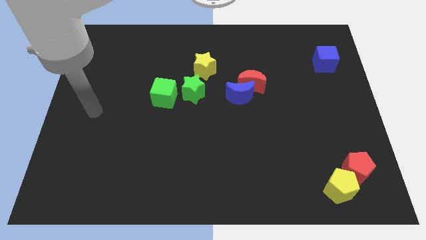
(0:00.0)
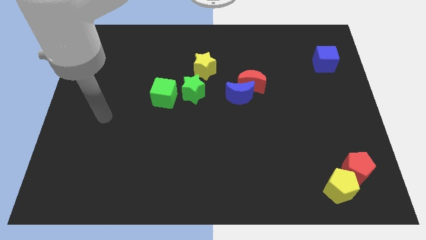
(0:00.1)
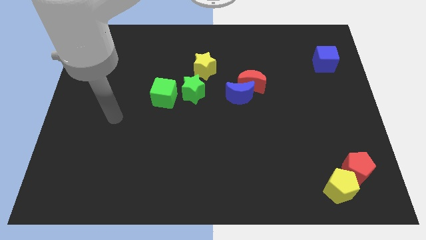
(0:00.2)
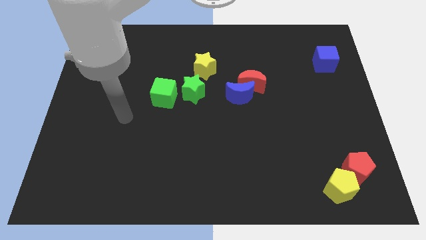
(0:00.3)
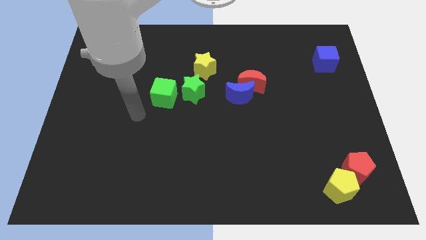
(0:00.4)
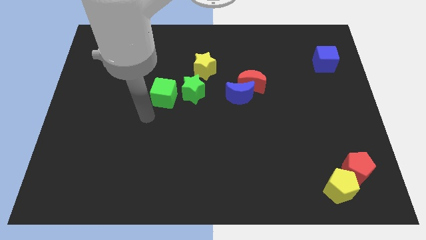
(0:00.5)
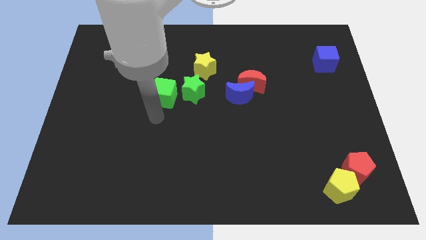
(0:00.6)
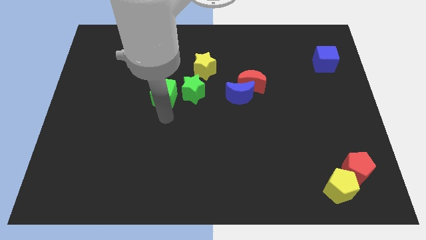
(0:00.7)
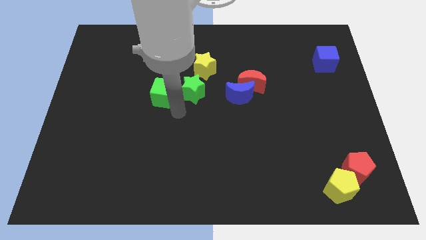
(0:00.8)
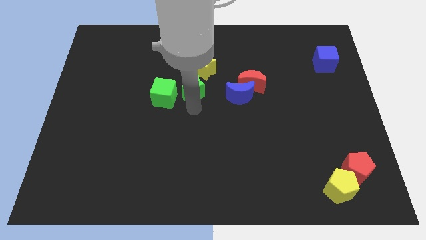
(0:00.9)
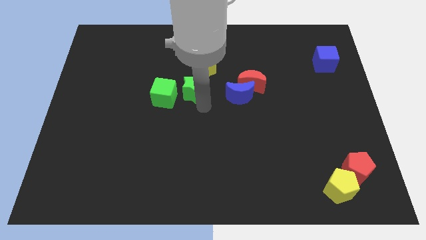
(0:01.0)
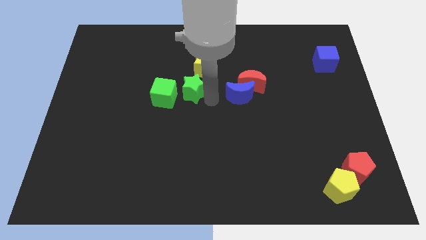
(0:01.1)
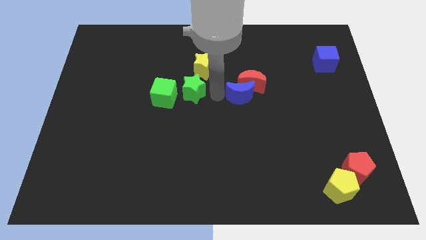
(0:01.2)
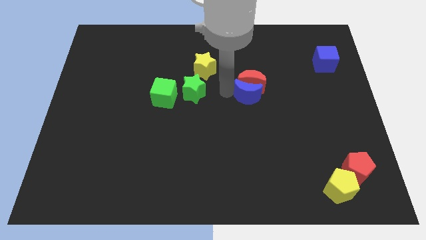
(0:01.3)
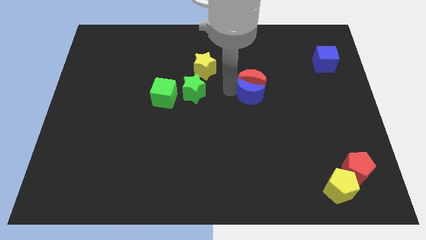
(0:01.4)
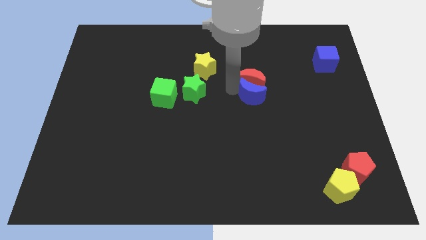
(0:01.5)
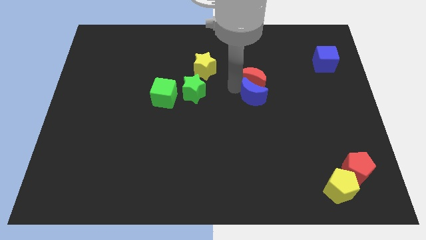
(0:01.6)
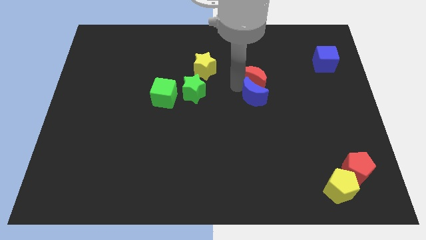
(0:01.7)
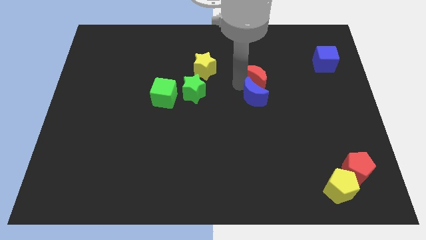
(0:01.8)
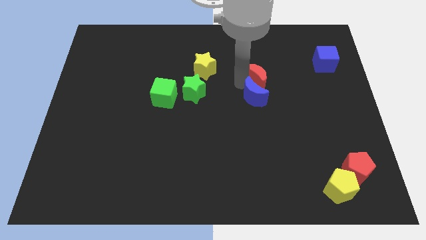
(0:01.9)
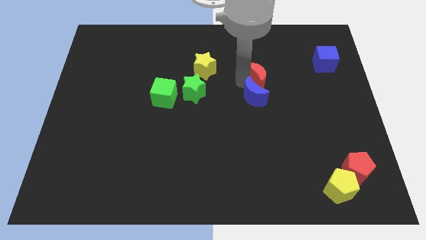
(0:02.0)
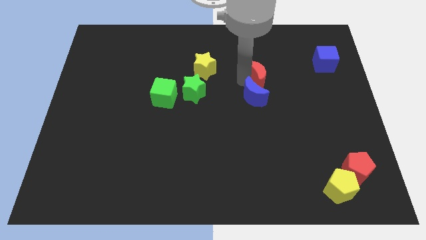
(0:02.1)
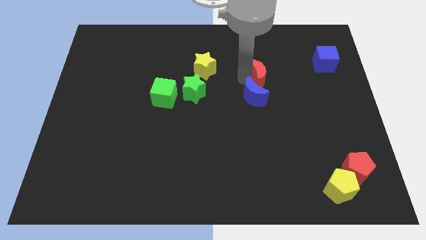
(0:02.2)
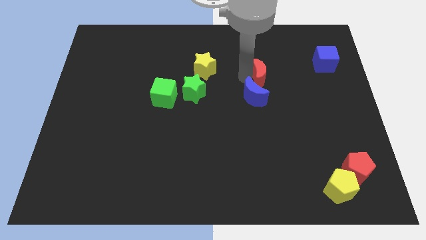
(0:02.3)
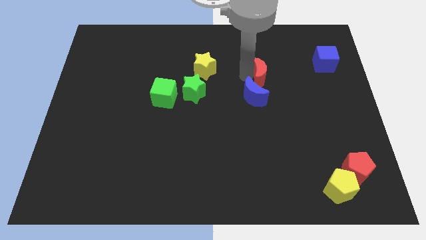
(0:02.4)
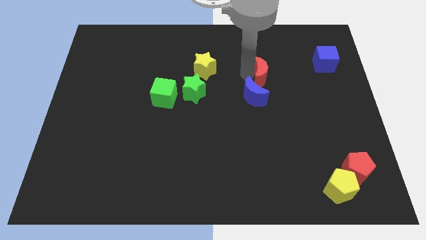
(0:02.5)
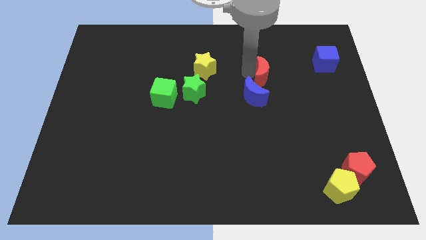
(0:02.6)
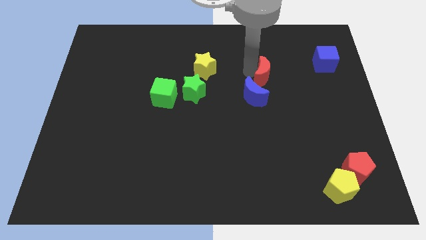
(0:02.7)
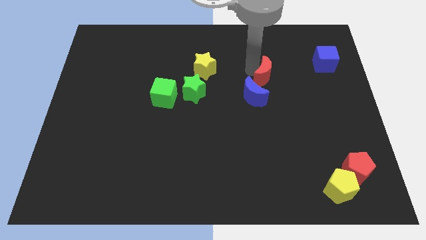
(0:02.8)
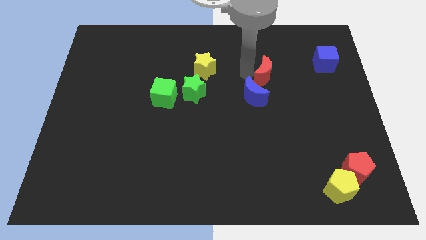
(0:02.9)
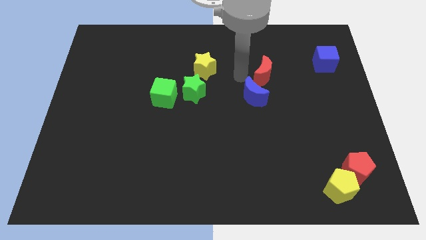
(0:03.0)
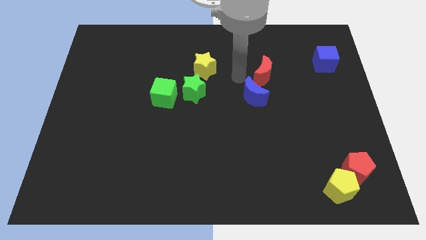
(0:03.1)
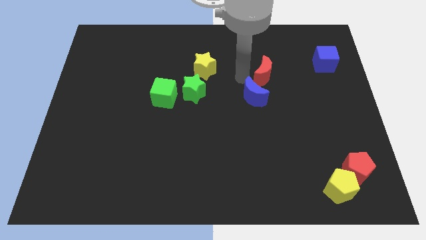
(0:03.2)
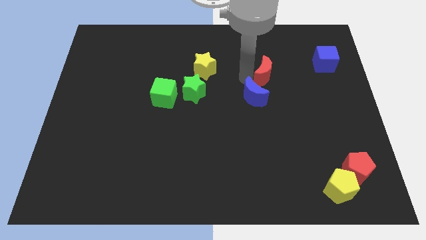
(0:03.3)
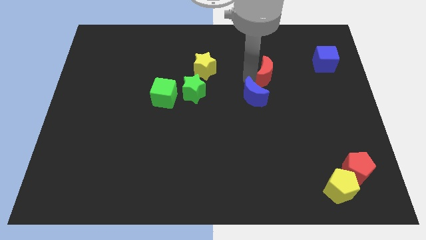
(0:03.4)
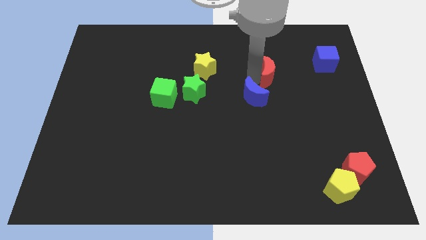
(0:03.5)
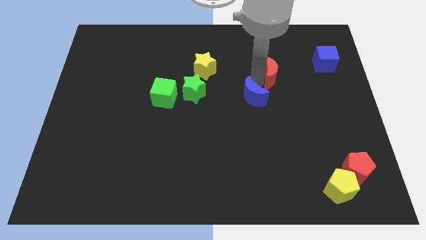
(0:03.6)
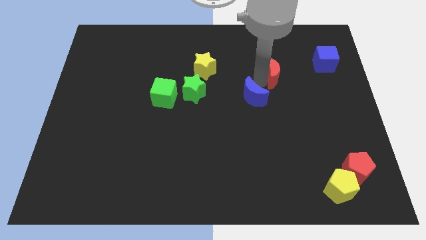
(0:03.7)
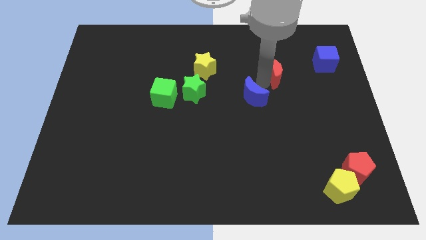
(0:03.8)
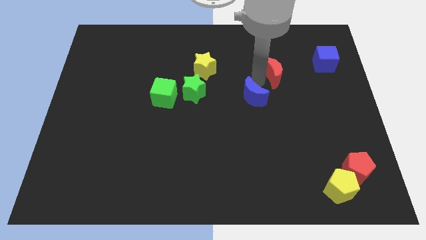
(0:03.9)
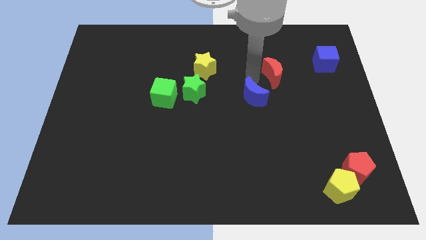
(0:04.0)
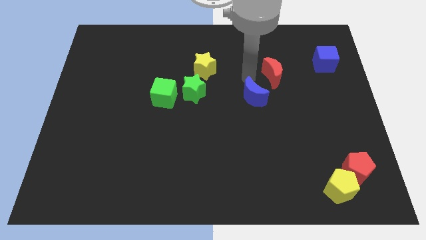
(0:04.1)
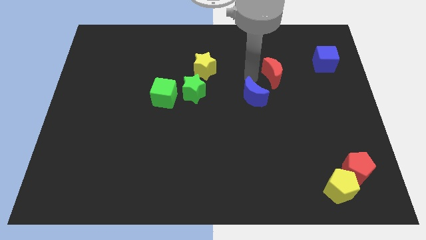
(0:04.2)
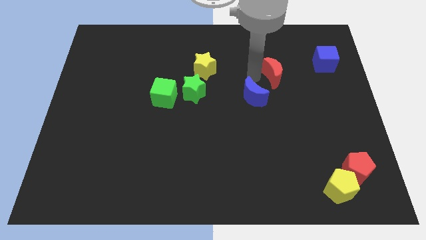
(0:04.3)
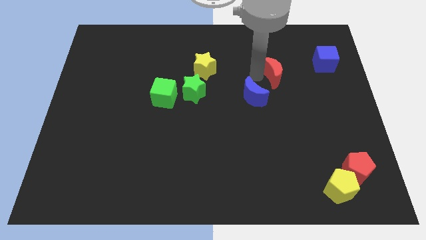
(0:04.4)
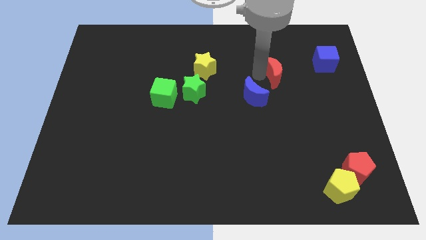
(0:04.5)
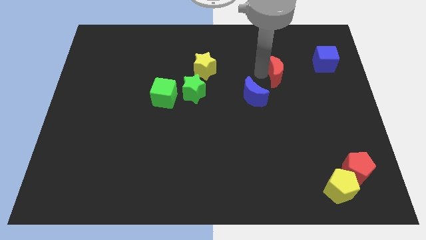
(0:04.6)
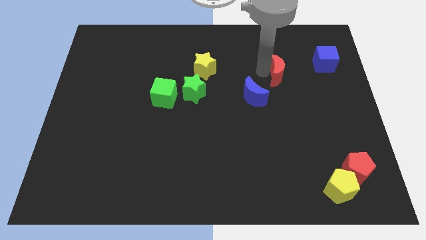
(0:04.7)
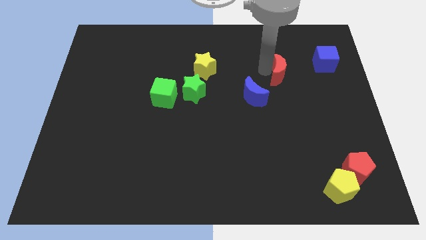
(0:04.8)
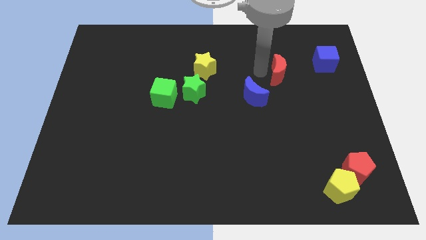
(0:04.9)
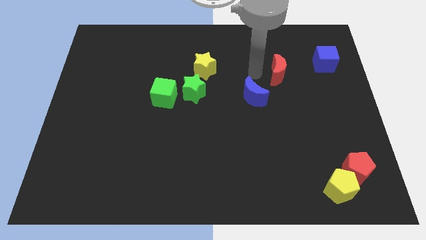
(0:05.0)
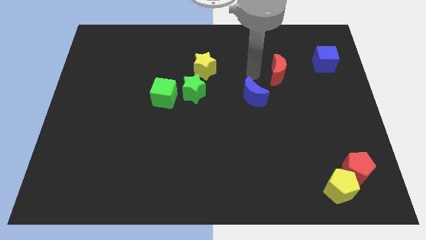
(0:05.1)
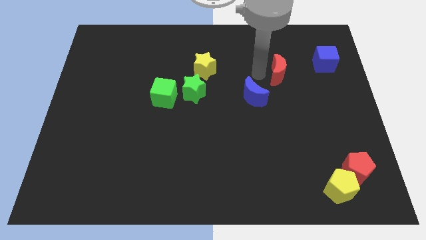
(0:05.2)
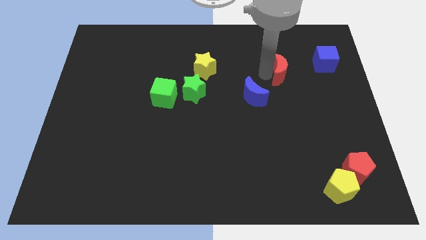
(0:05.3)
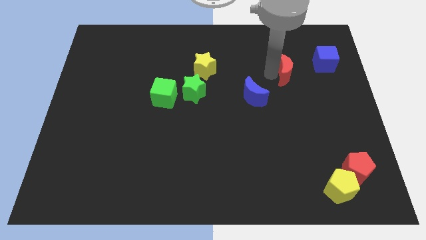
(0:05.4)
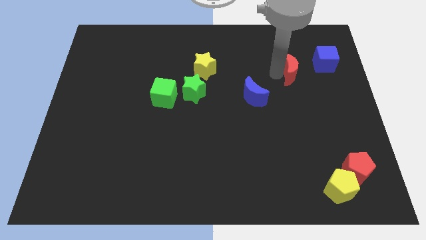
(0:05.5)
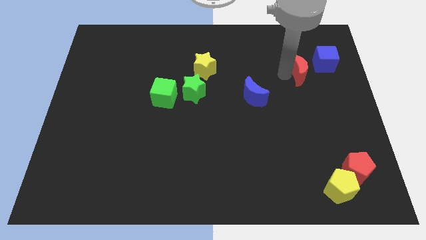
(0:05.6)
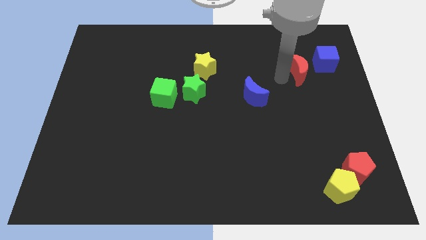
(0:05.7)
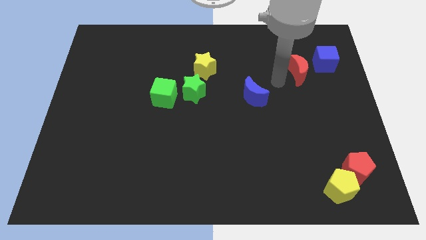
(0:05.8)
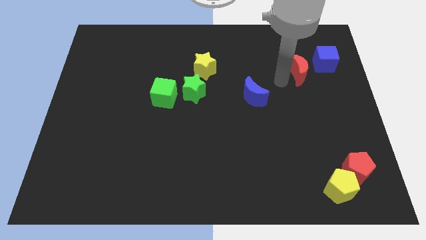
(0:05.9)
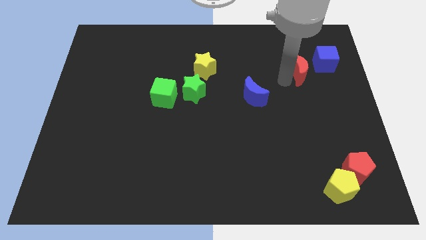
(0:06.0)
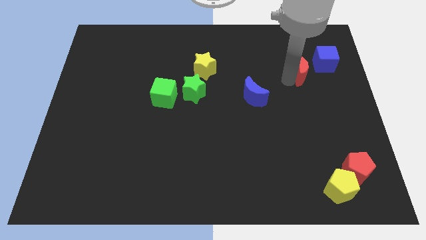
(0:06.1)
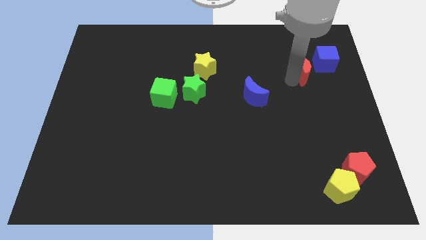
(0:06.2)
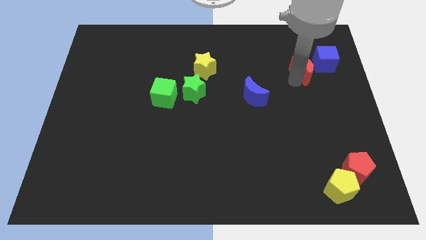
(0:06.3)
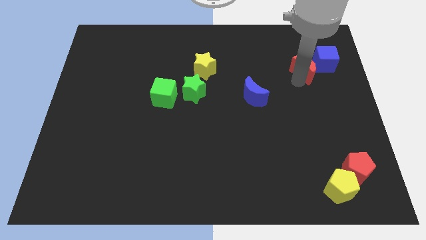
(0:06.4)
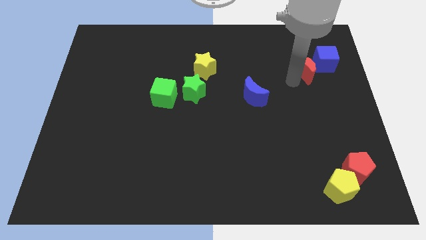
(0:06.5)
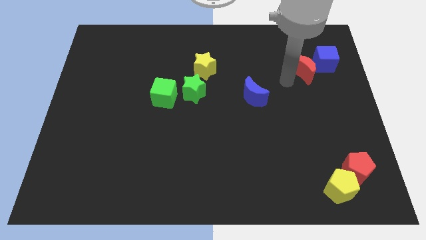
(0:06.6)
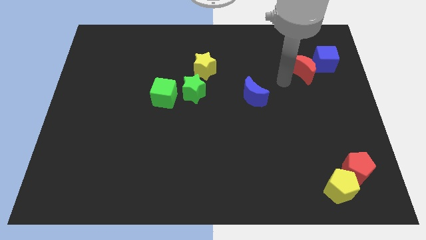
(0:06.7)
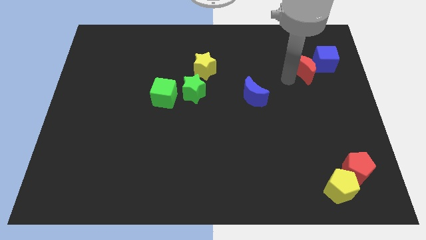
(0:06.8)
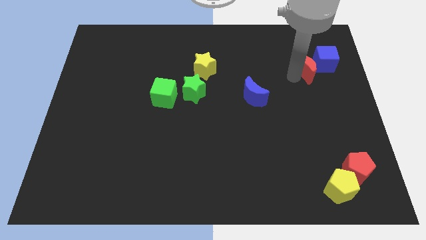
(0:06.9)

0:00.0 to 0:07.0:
move the red moon next to the blue cube

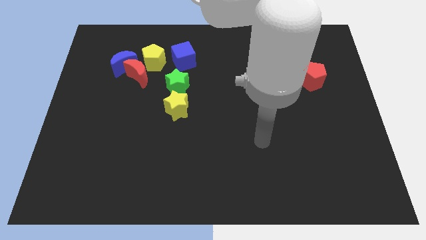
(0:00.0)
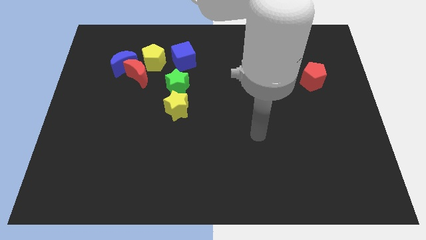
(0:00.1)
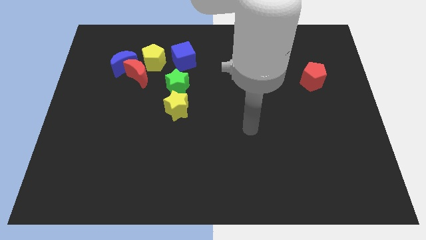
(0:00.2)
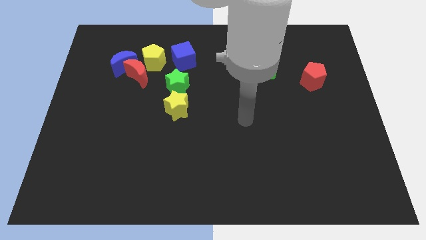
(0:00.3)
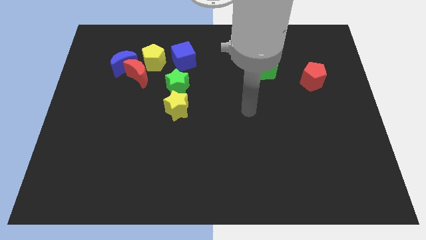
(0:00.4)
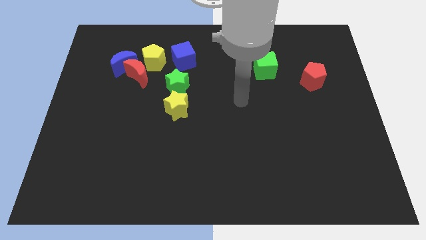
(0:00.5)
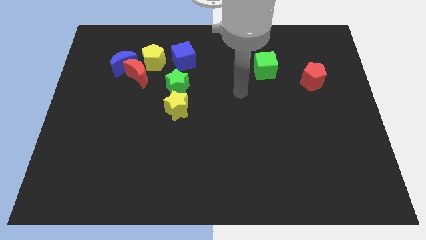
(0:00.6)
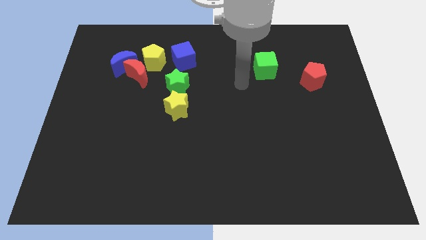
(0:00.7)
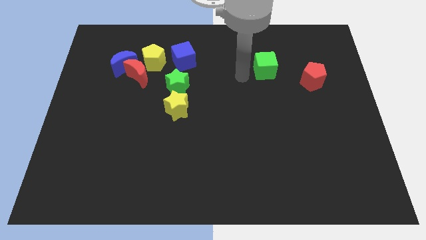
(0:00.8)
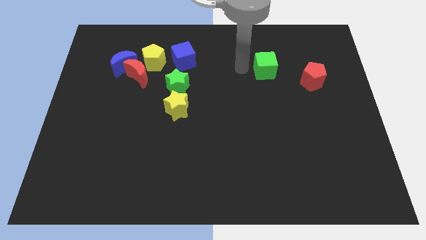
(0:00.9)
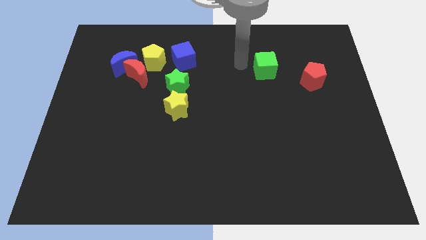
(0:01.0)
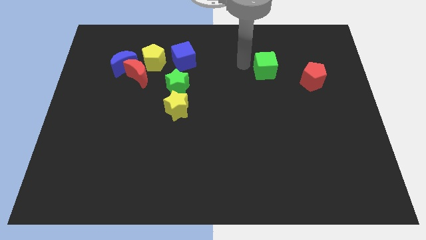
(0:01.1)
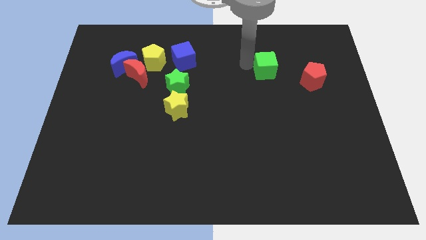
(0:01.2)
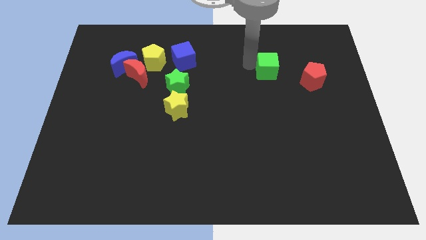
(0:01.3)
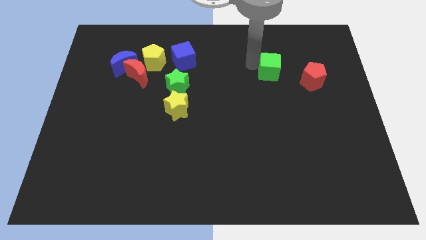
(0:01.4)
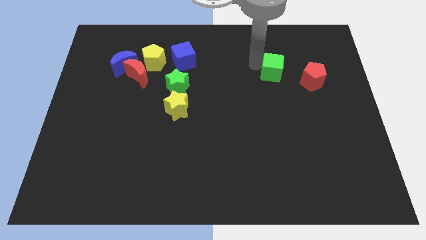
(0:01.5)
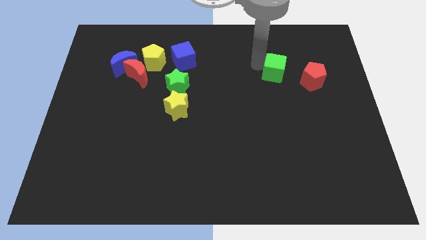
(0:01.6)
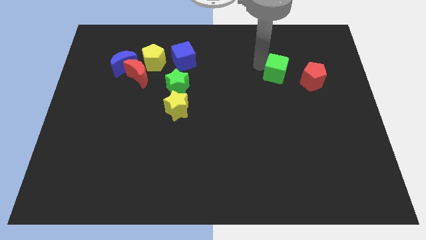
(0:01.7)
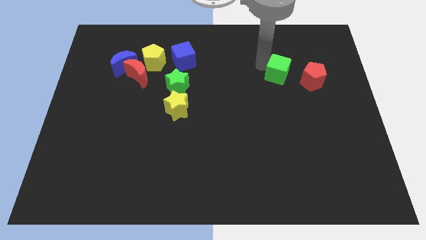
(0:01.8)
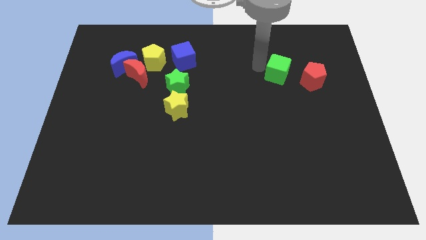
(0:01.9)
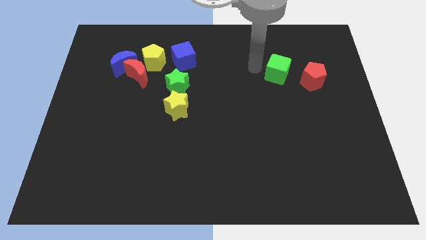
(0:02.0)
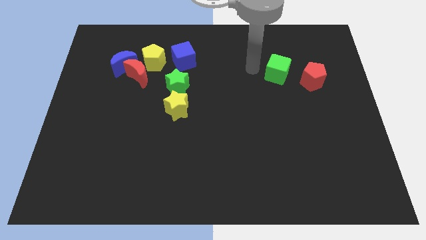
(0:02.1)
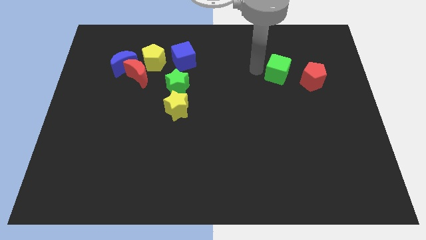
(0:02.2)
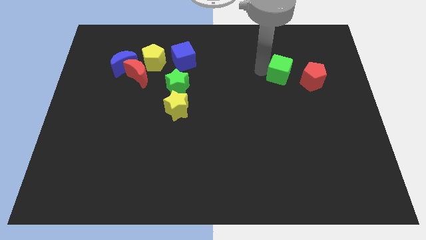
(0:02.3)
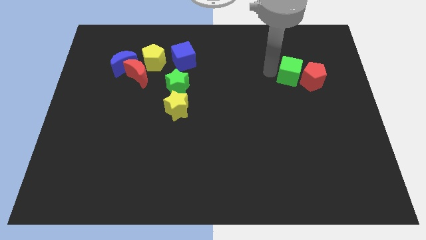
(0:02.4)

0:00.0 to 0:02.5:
move the green cube towards the red pentagon
